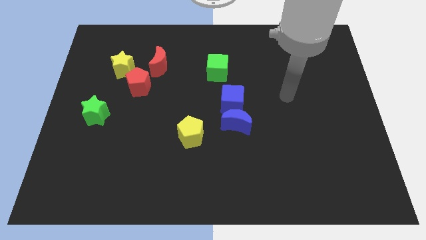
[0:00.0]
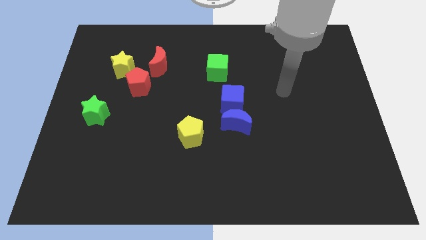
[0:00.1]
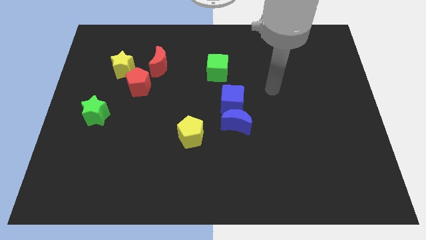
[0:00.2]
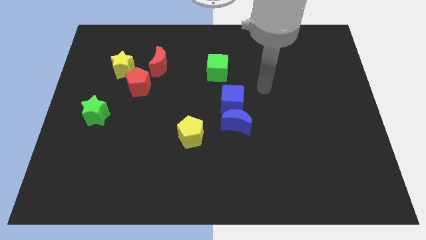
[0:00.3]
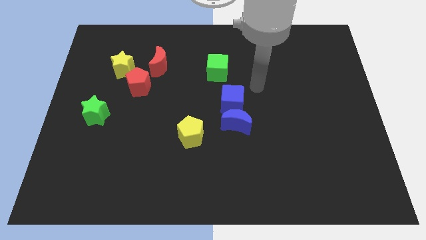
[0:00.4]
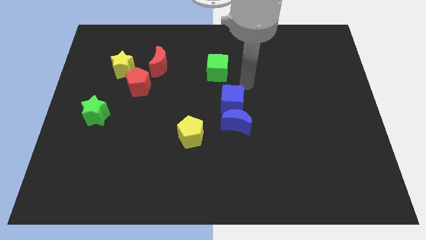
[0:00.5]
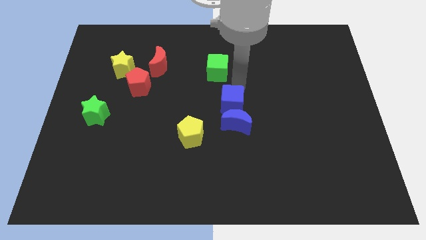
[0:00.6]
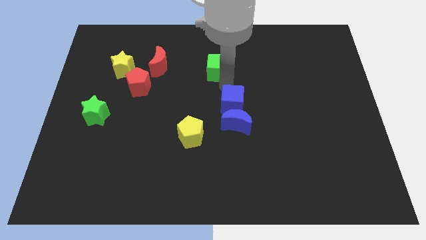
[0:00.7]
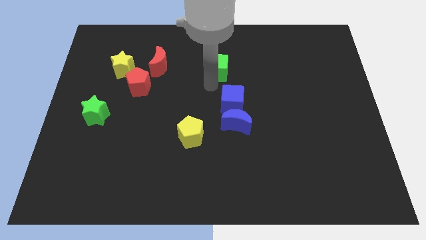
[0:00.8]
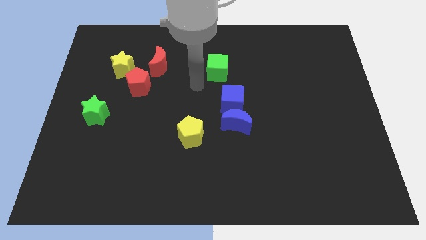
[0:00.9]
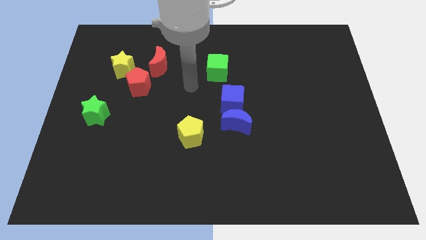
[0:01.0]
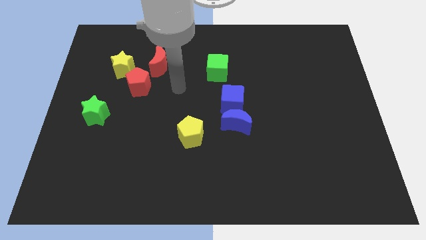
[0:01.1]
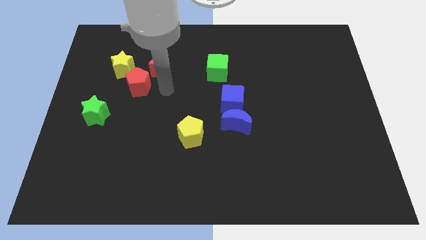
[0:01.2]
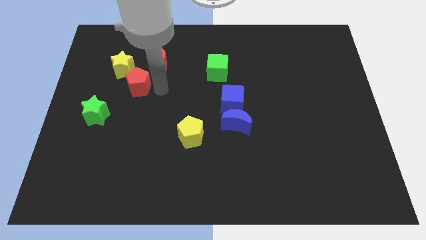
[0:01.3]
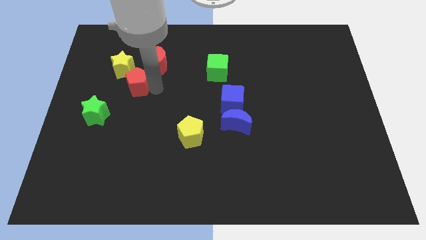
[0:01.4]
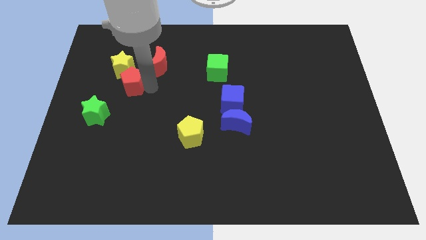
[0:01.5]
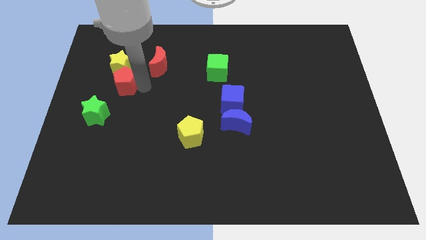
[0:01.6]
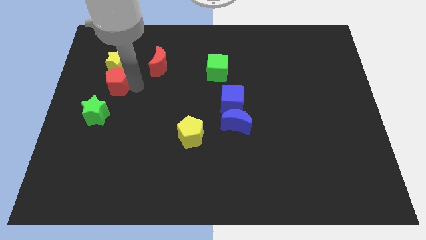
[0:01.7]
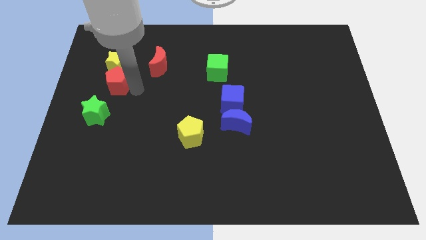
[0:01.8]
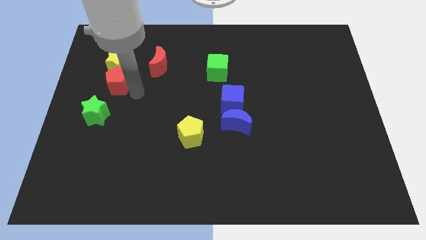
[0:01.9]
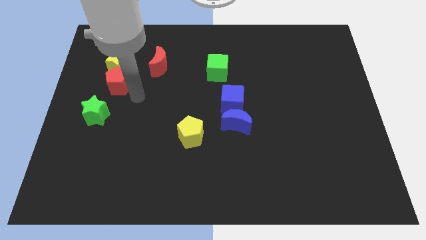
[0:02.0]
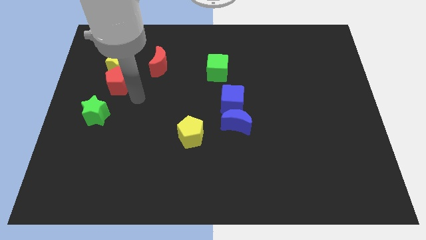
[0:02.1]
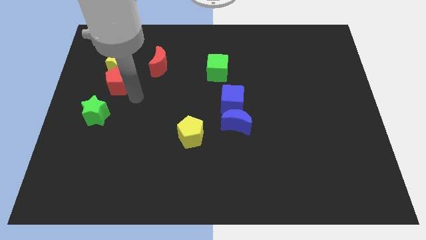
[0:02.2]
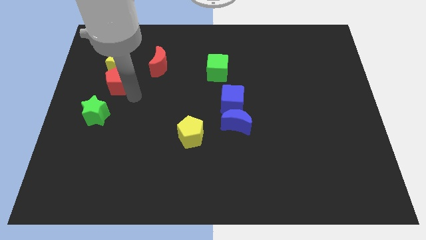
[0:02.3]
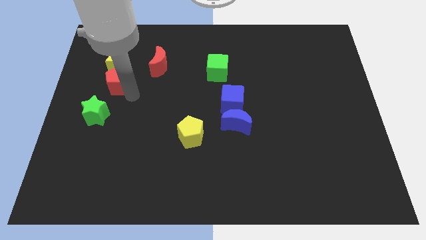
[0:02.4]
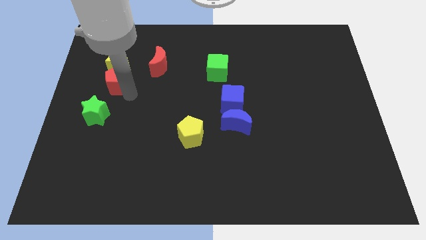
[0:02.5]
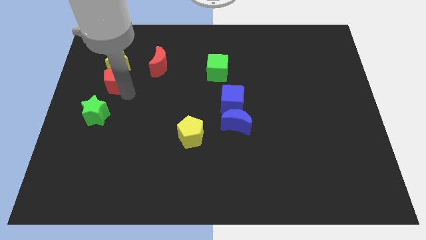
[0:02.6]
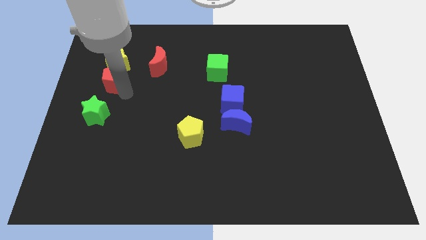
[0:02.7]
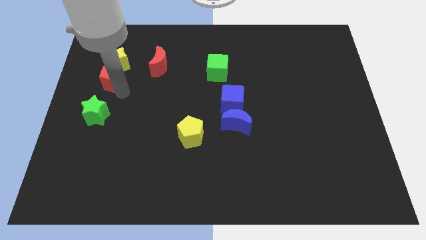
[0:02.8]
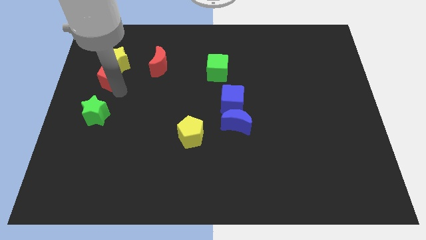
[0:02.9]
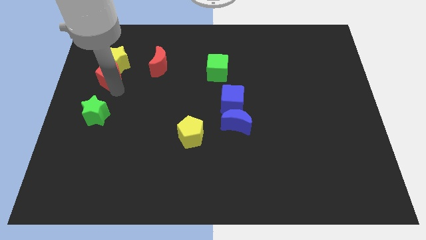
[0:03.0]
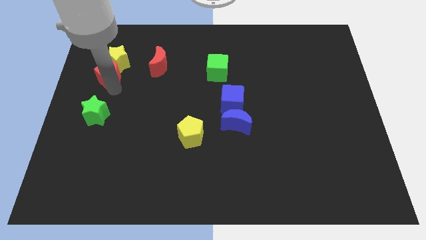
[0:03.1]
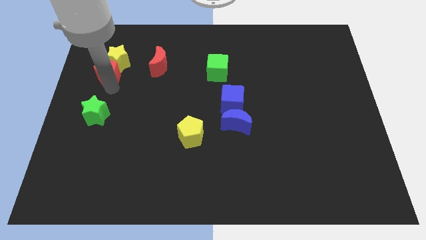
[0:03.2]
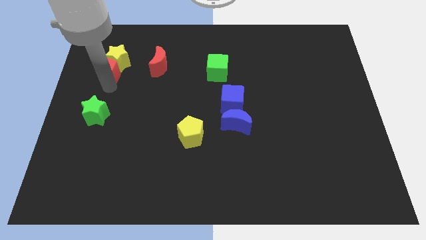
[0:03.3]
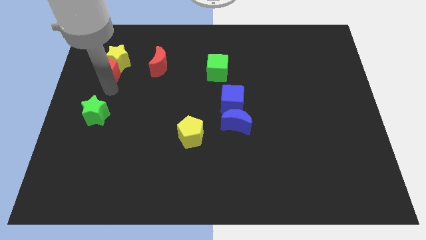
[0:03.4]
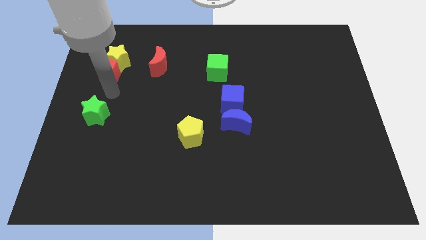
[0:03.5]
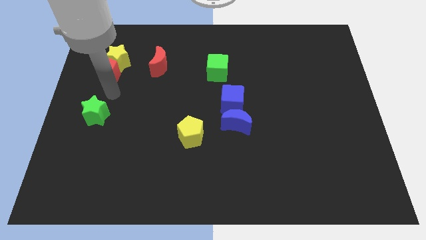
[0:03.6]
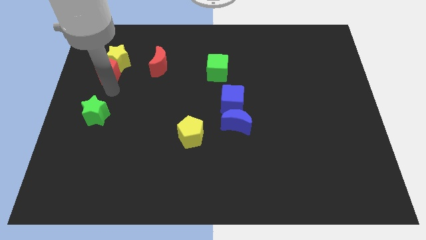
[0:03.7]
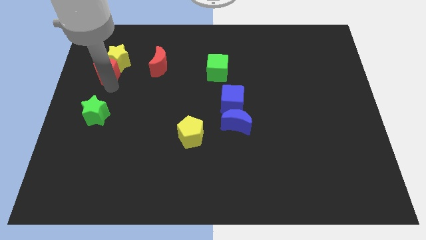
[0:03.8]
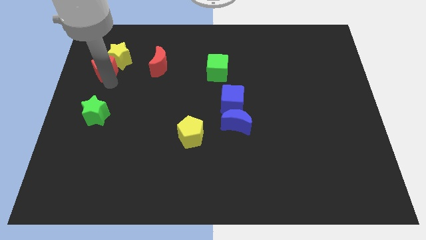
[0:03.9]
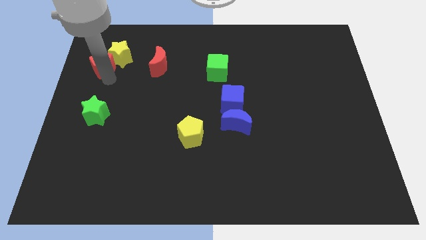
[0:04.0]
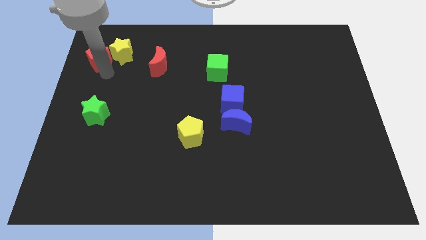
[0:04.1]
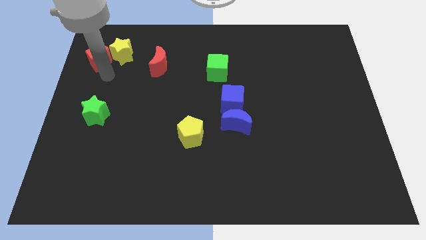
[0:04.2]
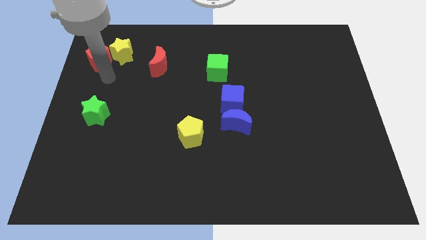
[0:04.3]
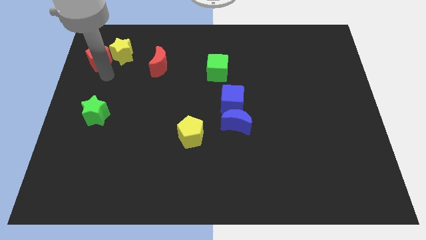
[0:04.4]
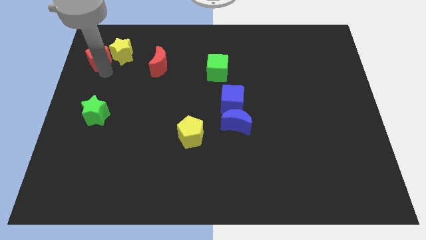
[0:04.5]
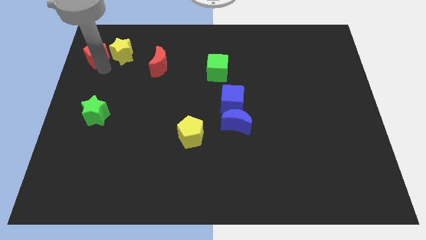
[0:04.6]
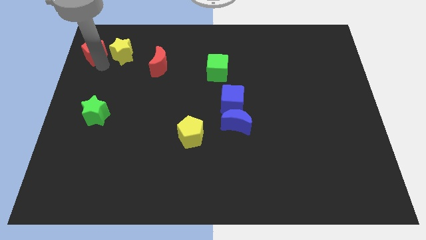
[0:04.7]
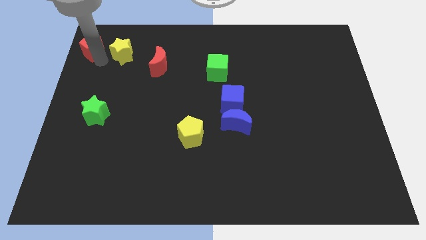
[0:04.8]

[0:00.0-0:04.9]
move the red pentagon to the top left of the board

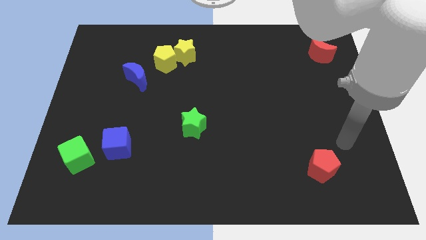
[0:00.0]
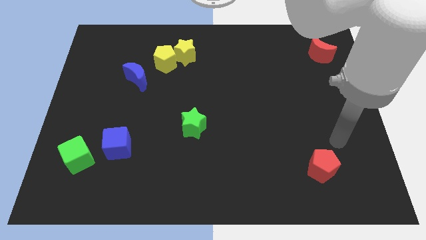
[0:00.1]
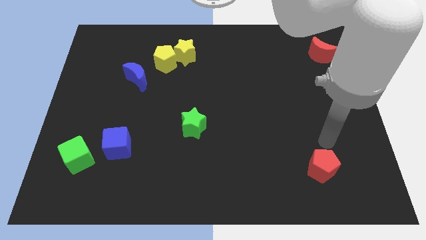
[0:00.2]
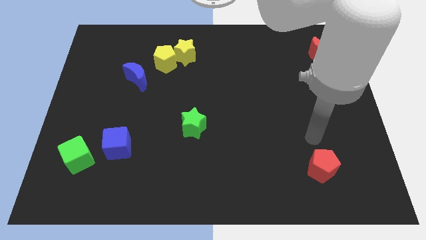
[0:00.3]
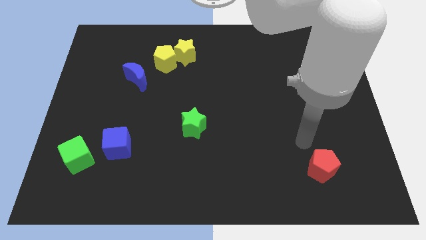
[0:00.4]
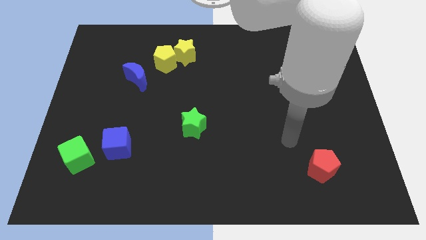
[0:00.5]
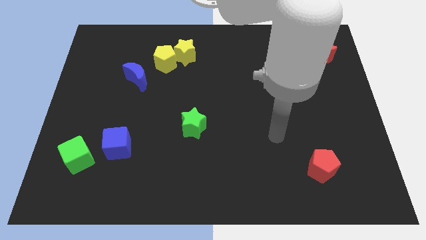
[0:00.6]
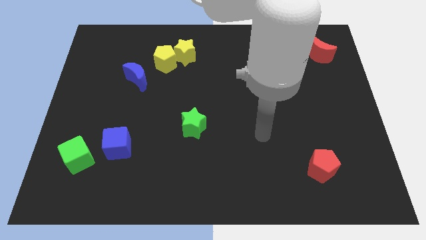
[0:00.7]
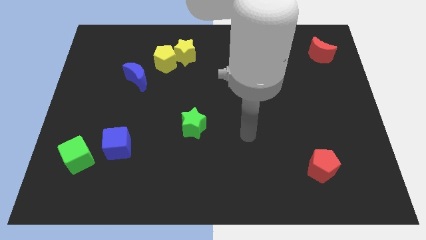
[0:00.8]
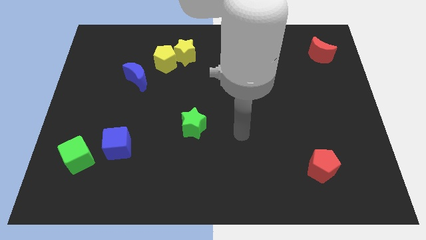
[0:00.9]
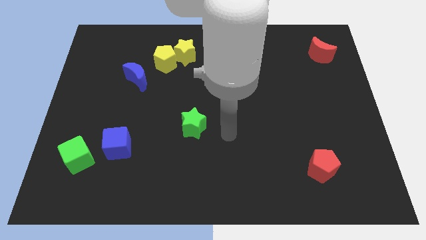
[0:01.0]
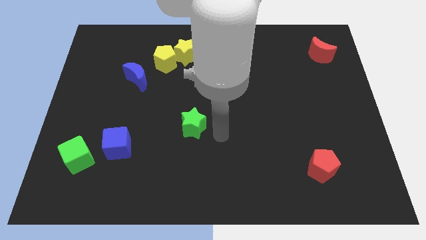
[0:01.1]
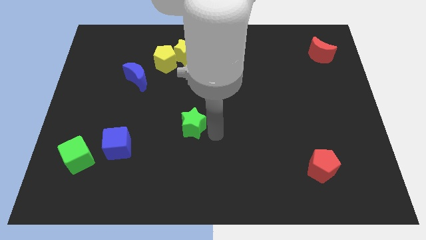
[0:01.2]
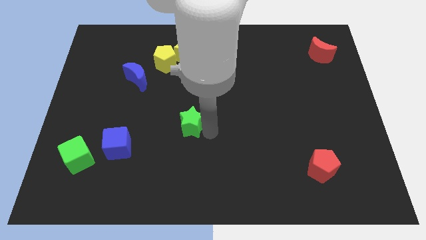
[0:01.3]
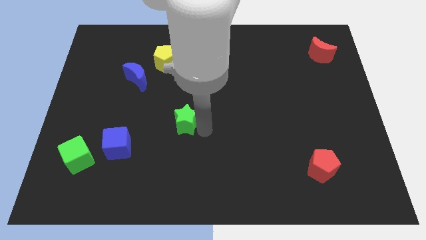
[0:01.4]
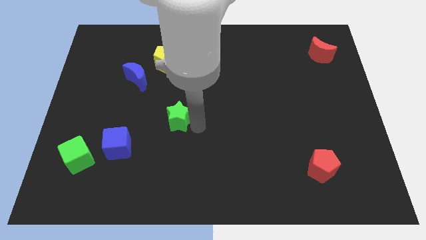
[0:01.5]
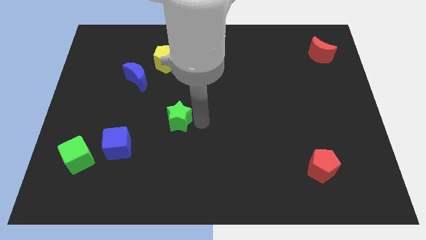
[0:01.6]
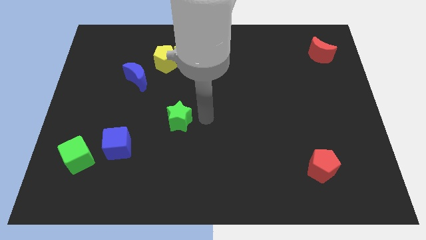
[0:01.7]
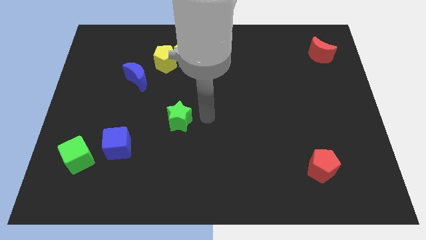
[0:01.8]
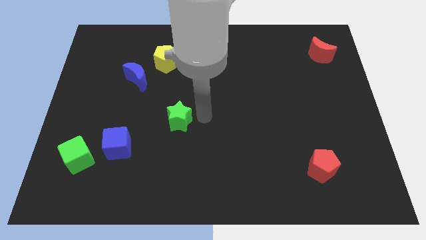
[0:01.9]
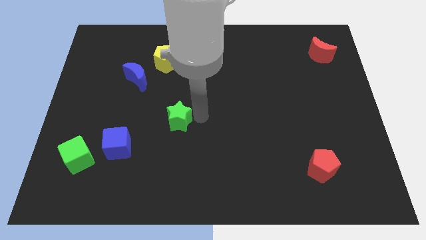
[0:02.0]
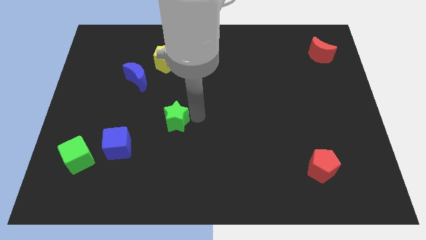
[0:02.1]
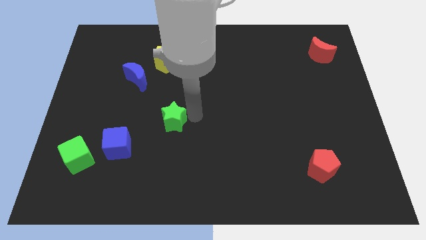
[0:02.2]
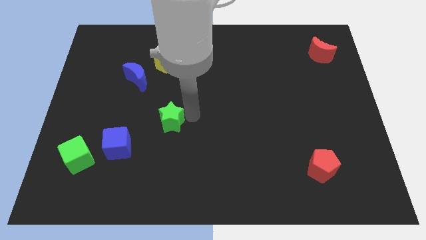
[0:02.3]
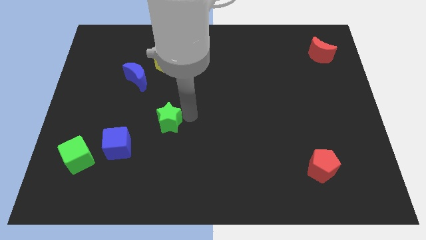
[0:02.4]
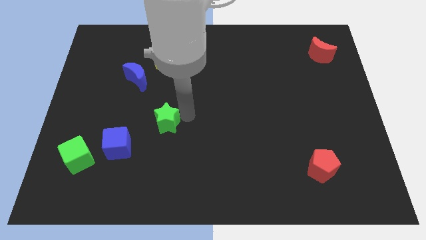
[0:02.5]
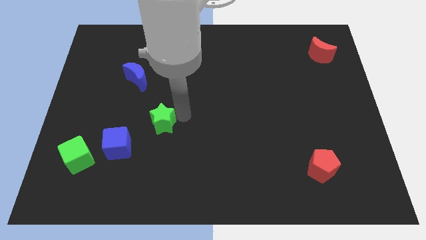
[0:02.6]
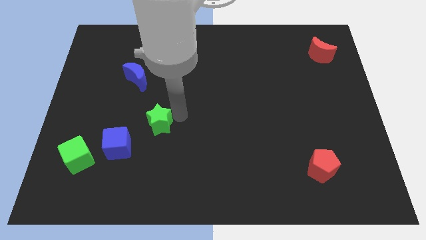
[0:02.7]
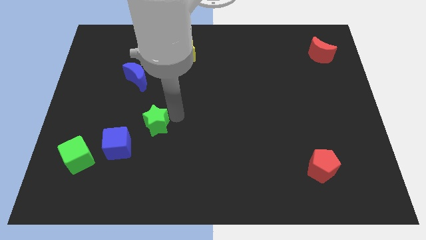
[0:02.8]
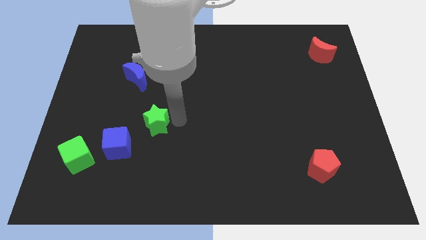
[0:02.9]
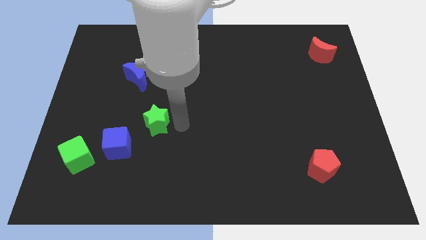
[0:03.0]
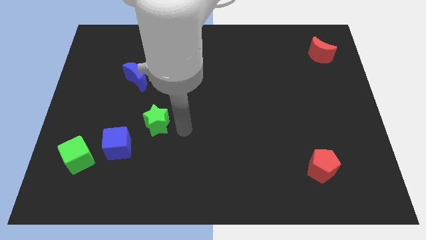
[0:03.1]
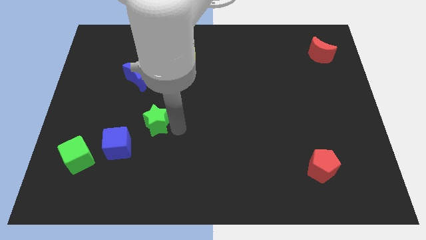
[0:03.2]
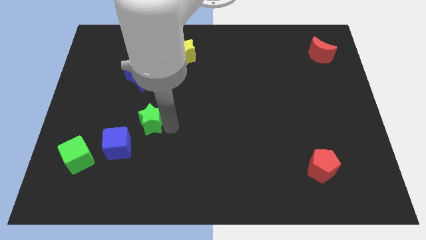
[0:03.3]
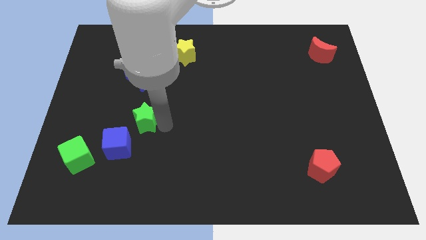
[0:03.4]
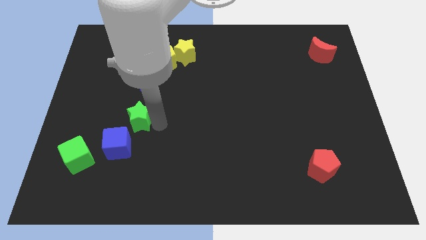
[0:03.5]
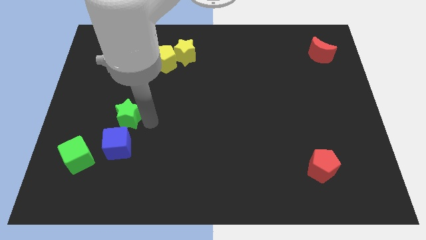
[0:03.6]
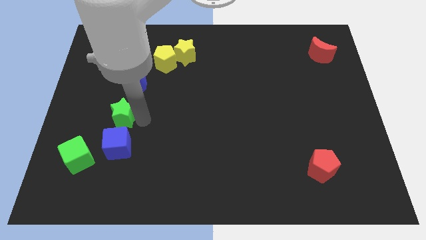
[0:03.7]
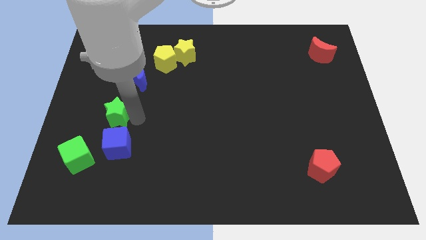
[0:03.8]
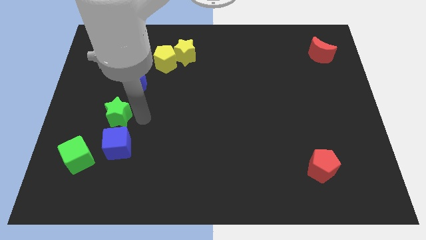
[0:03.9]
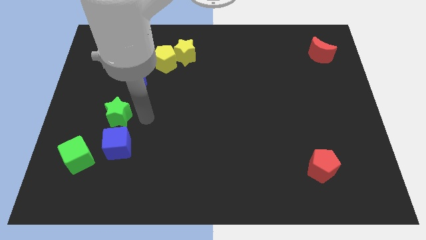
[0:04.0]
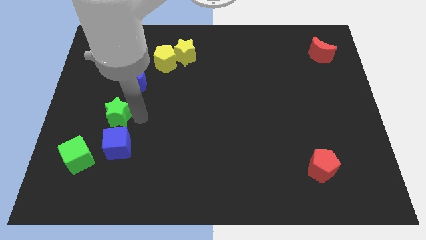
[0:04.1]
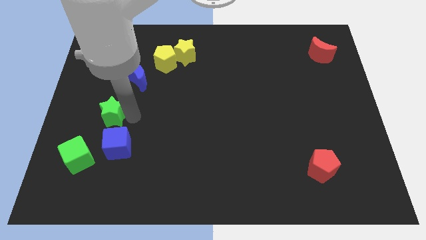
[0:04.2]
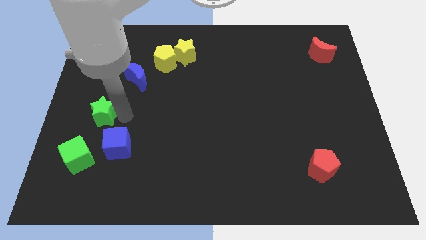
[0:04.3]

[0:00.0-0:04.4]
put the green star to the center left
